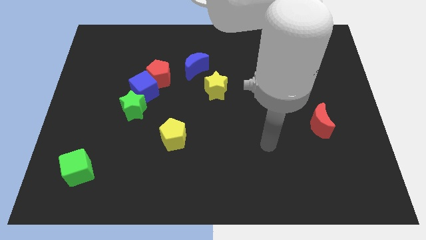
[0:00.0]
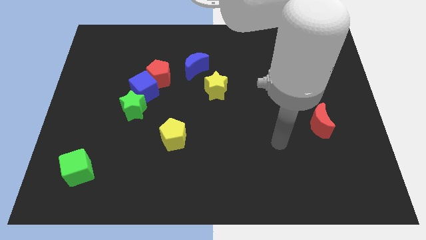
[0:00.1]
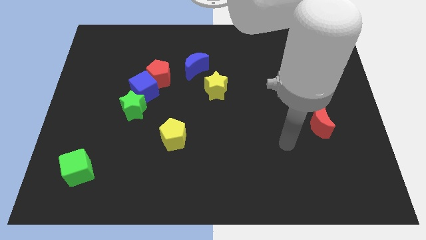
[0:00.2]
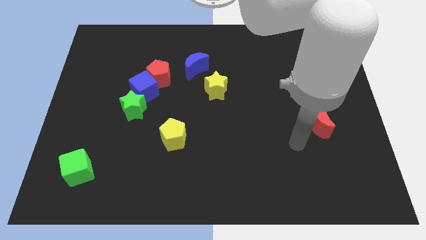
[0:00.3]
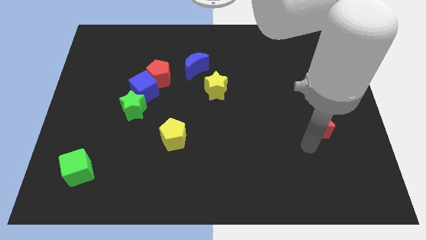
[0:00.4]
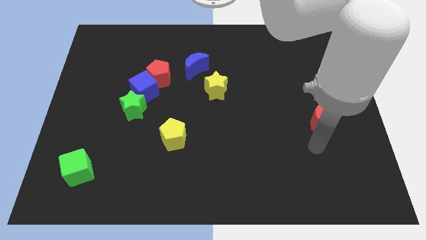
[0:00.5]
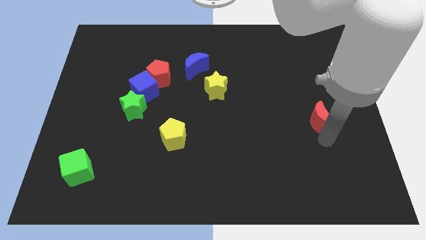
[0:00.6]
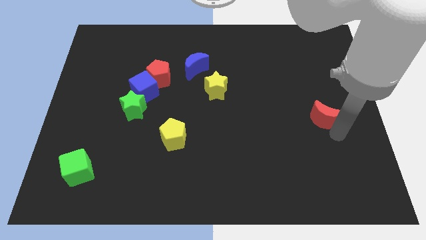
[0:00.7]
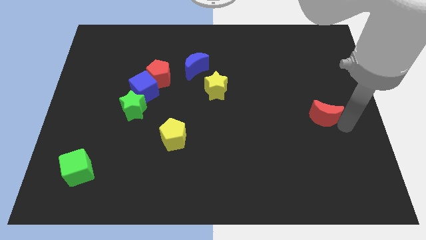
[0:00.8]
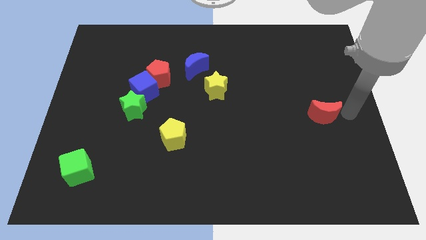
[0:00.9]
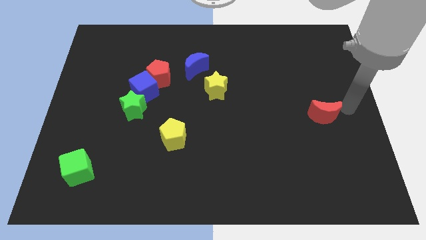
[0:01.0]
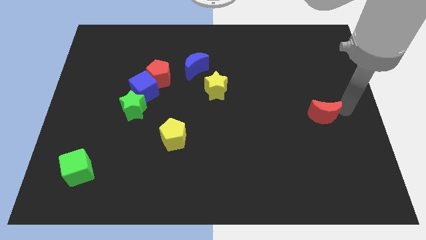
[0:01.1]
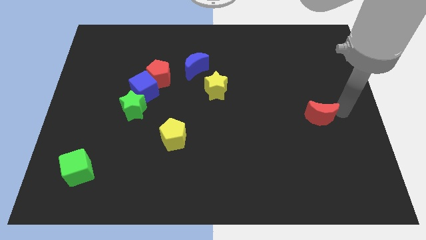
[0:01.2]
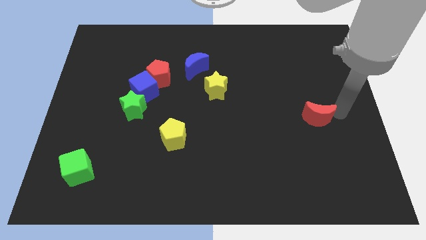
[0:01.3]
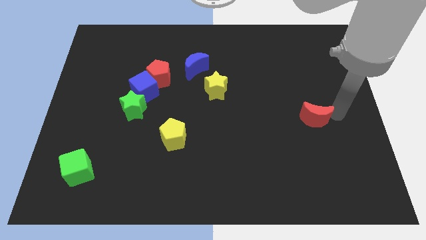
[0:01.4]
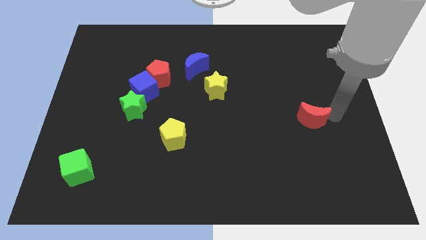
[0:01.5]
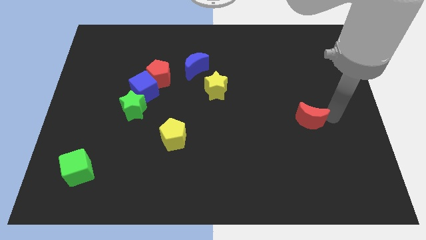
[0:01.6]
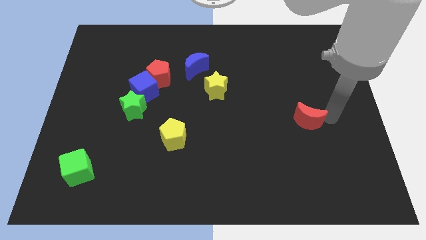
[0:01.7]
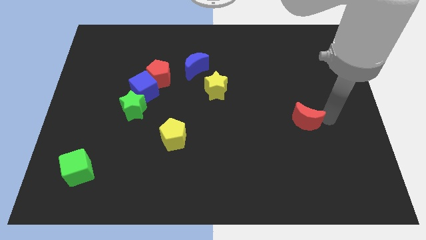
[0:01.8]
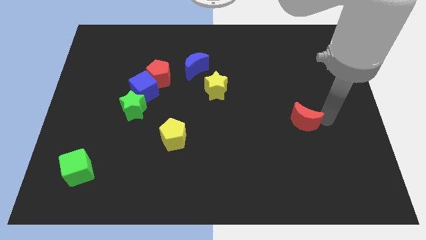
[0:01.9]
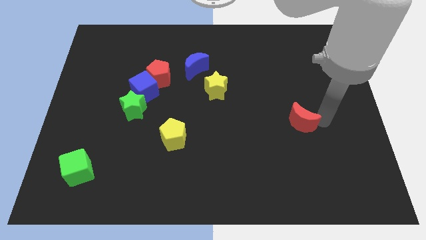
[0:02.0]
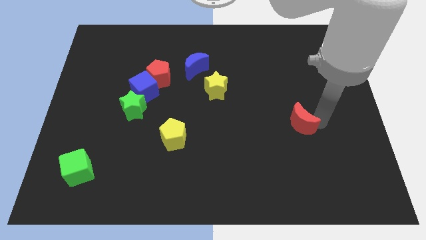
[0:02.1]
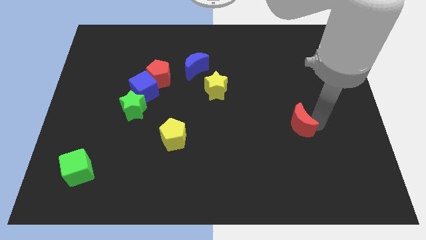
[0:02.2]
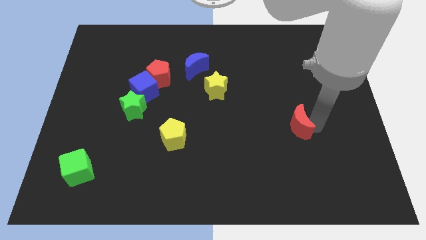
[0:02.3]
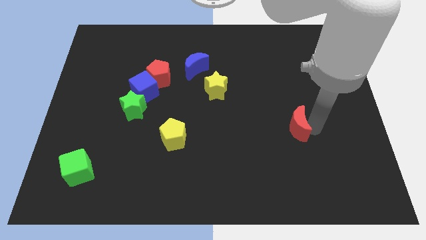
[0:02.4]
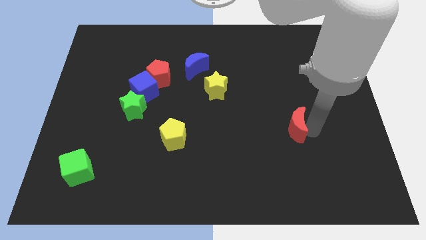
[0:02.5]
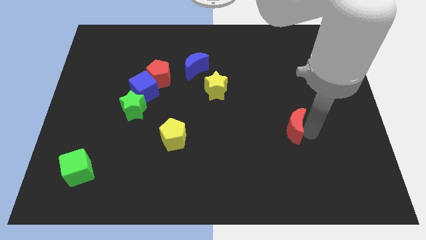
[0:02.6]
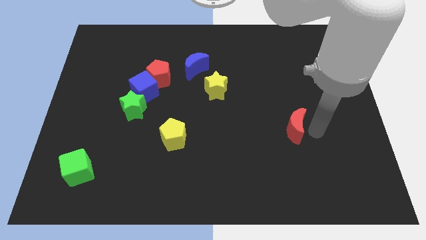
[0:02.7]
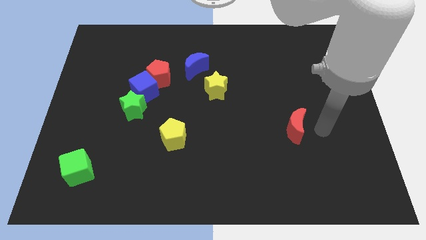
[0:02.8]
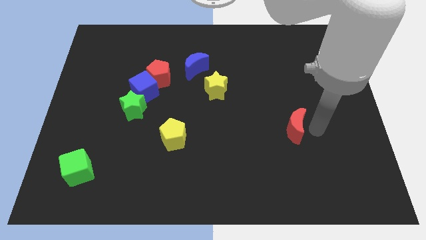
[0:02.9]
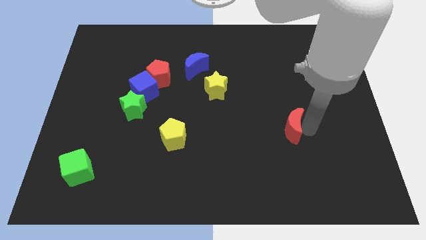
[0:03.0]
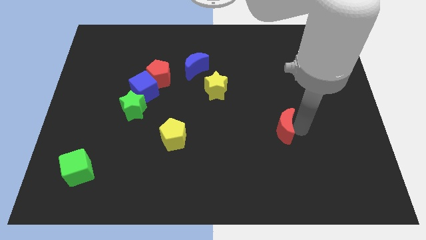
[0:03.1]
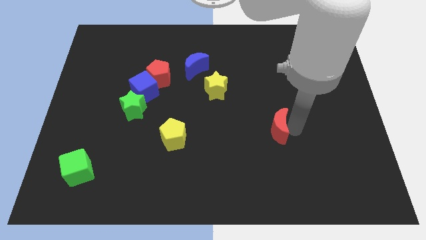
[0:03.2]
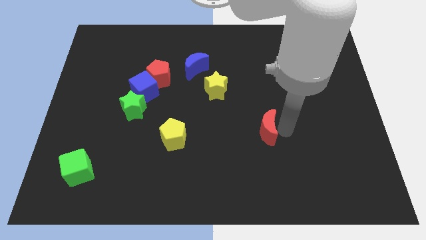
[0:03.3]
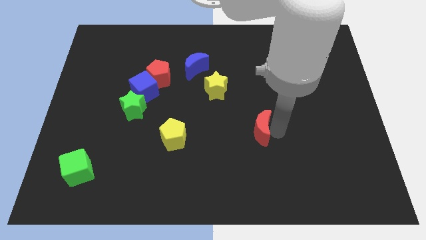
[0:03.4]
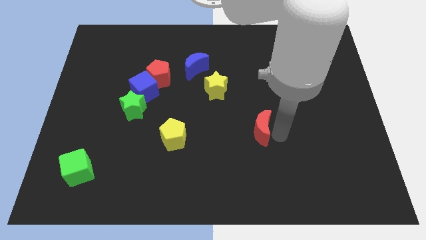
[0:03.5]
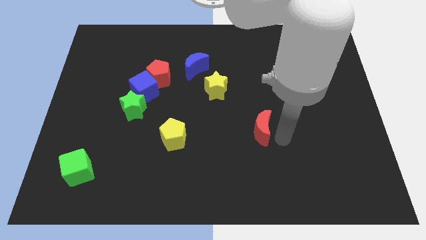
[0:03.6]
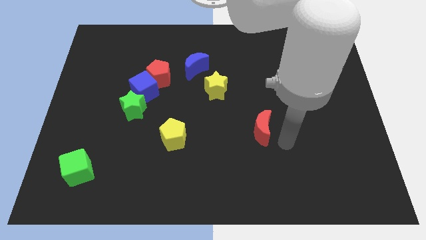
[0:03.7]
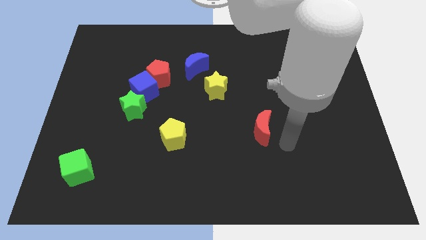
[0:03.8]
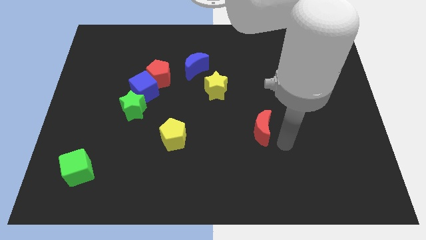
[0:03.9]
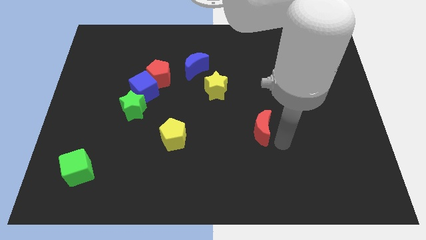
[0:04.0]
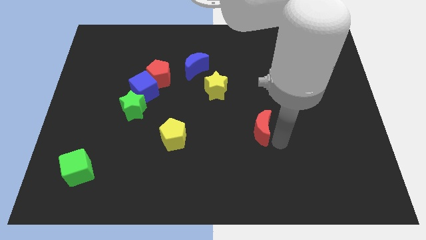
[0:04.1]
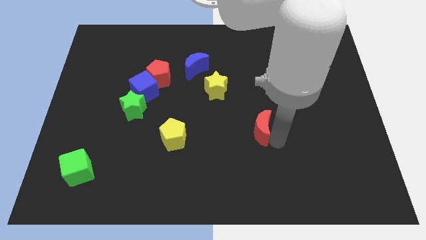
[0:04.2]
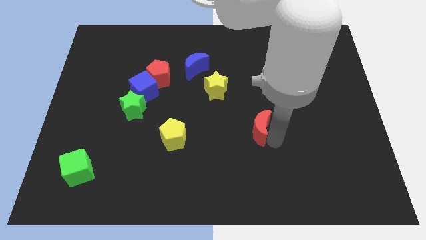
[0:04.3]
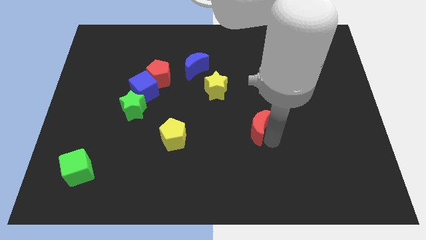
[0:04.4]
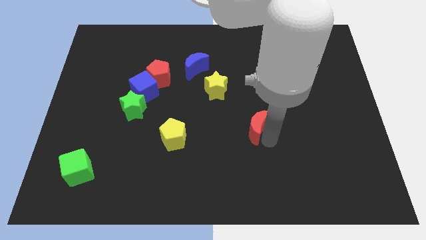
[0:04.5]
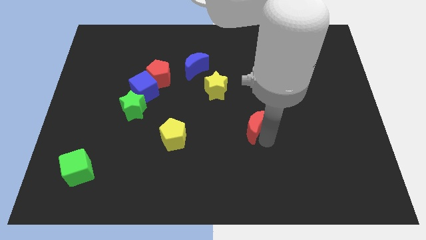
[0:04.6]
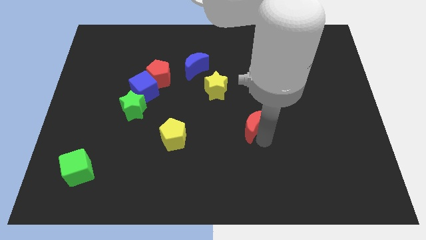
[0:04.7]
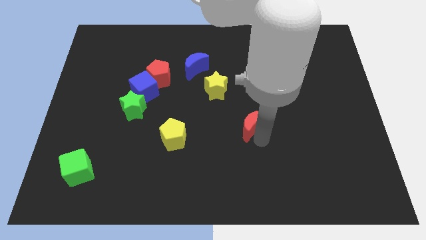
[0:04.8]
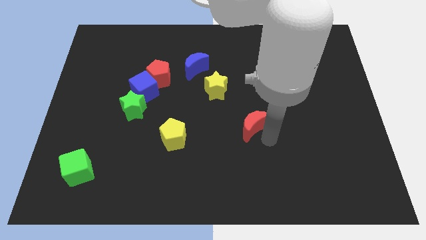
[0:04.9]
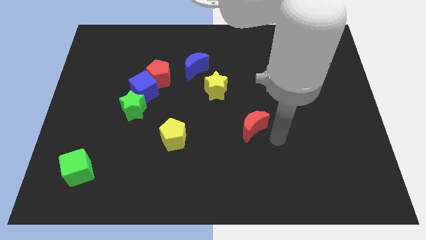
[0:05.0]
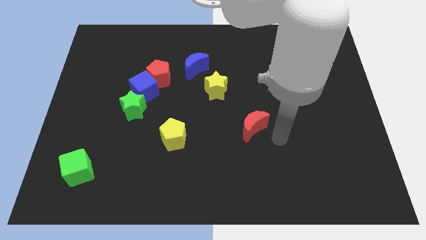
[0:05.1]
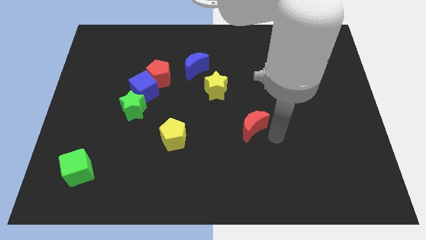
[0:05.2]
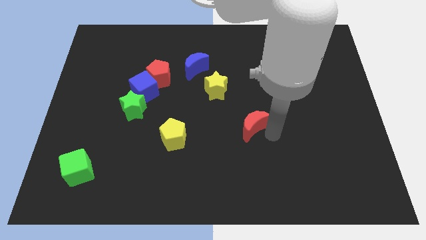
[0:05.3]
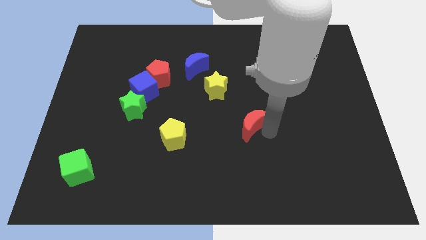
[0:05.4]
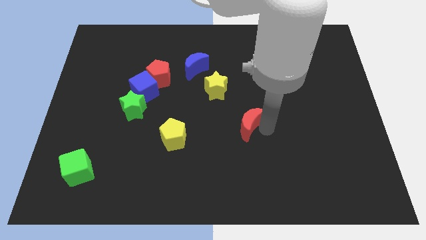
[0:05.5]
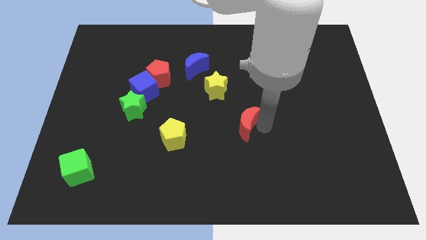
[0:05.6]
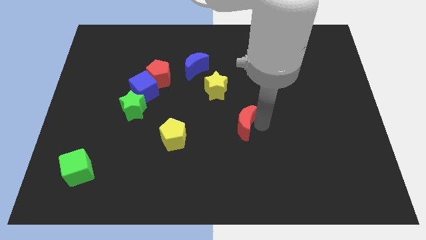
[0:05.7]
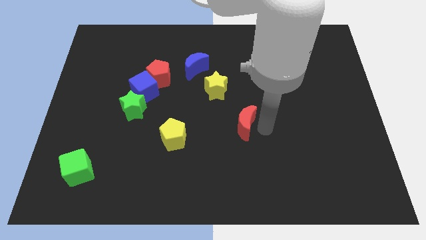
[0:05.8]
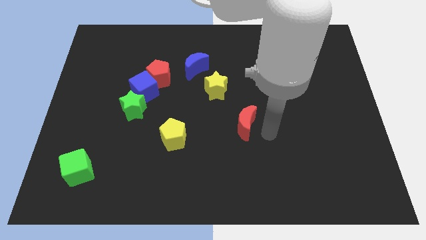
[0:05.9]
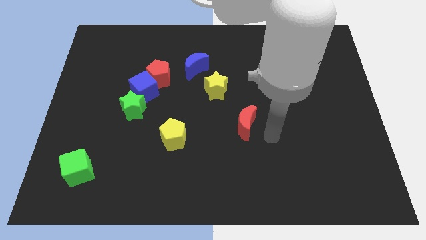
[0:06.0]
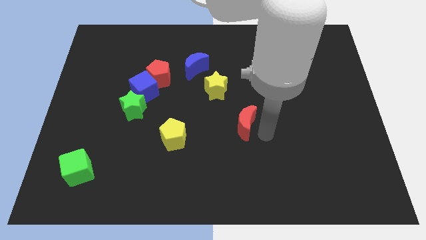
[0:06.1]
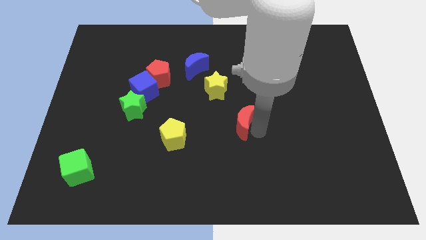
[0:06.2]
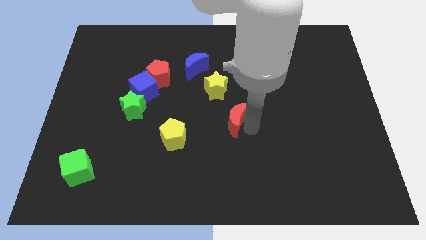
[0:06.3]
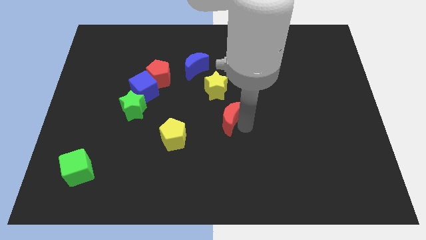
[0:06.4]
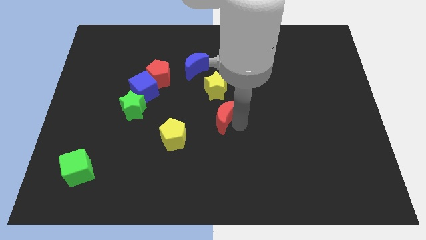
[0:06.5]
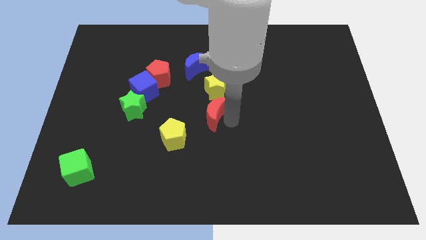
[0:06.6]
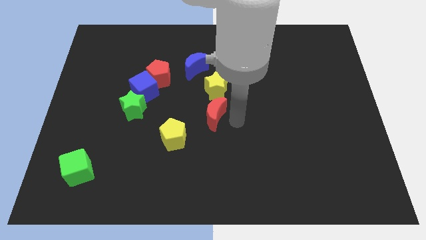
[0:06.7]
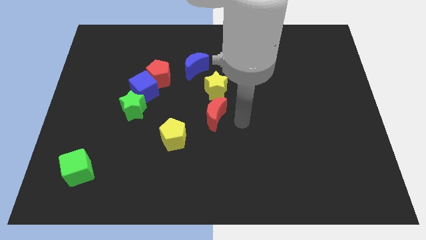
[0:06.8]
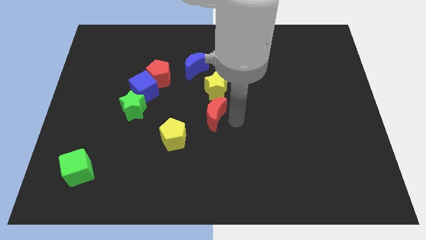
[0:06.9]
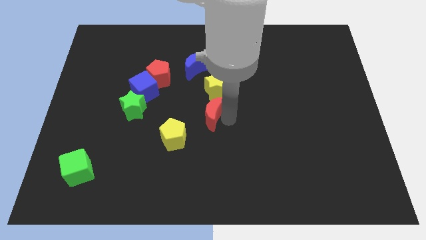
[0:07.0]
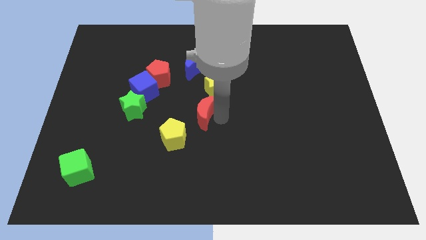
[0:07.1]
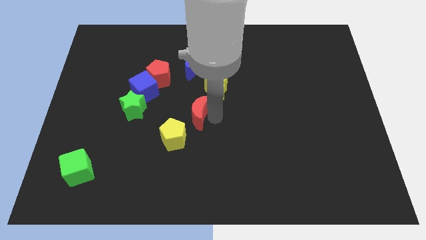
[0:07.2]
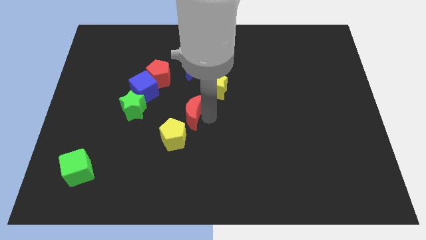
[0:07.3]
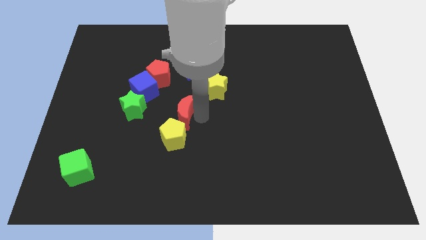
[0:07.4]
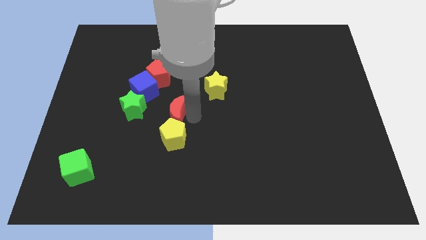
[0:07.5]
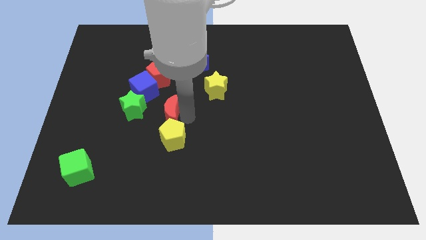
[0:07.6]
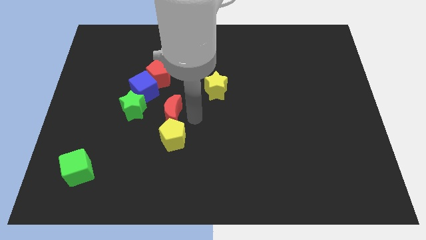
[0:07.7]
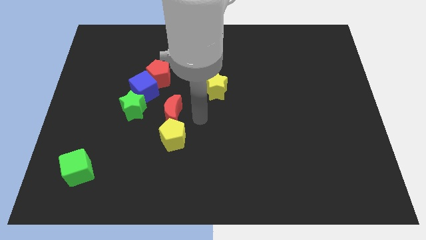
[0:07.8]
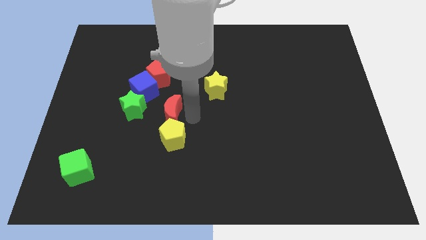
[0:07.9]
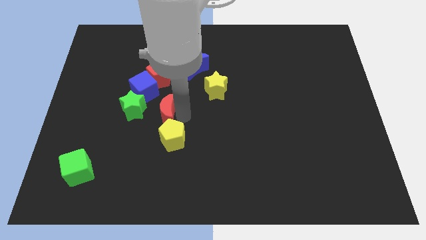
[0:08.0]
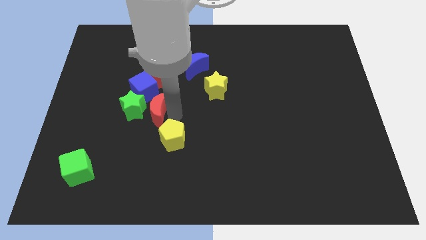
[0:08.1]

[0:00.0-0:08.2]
push the red moon to the green star

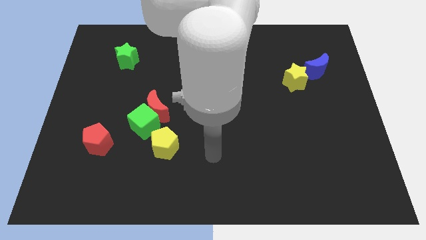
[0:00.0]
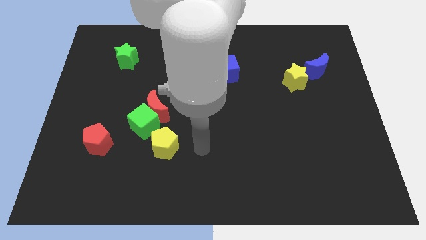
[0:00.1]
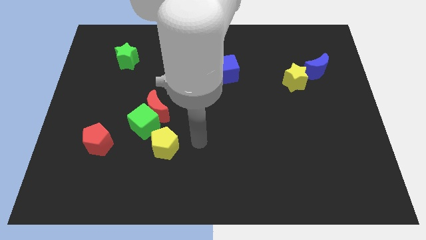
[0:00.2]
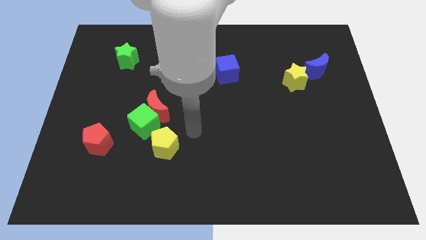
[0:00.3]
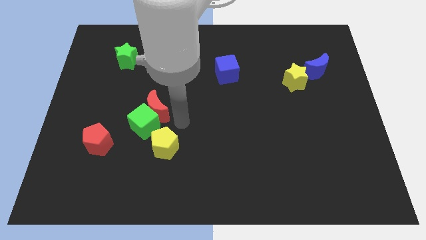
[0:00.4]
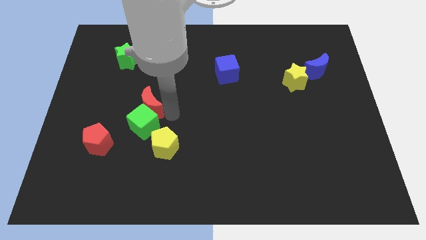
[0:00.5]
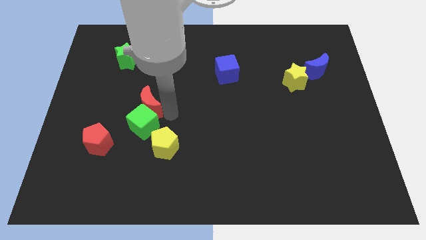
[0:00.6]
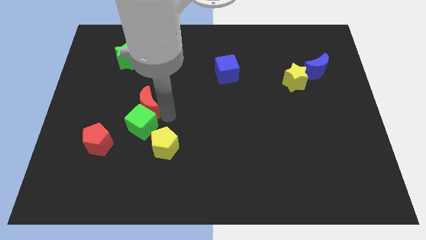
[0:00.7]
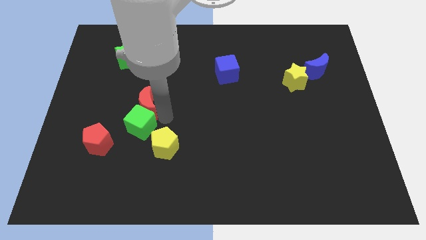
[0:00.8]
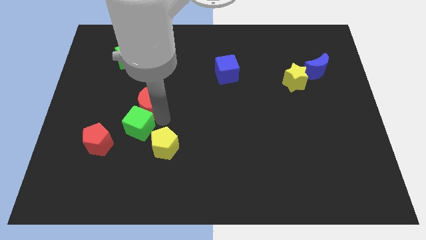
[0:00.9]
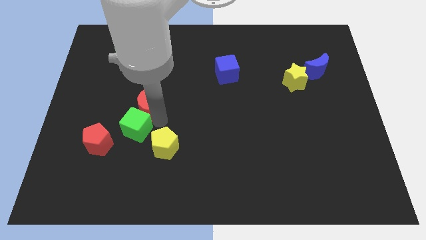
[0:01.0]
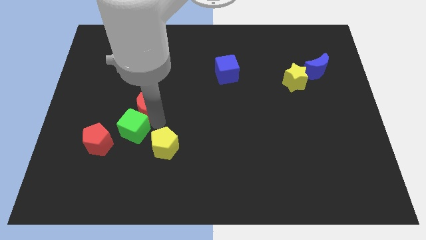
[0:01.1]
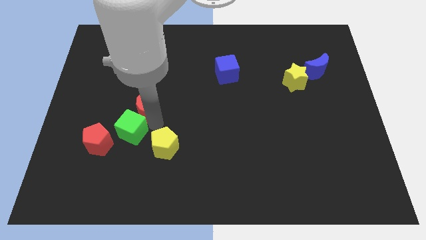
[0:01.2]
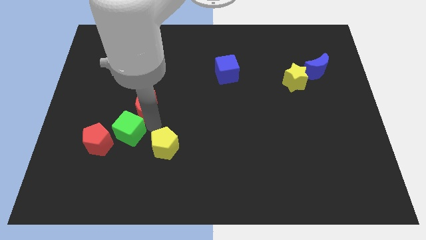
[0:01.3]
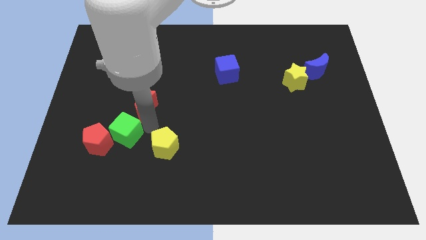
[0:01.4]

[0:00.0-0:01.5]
move the green cube towards the red pentagon
